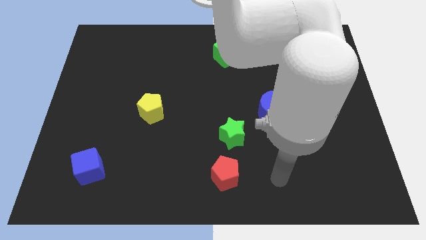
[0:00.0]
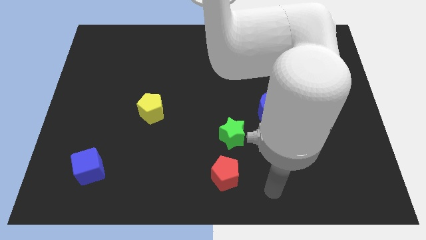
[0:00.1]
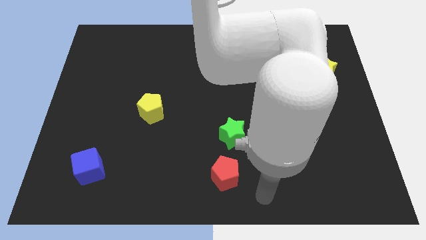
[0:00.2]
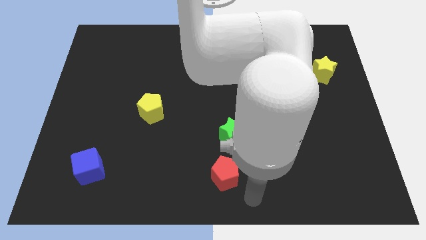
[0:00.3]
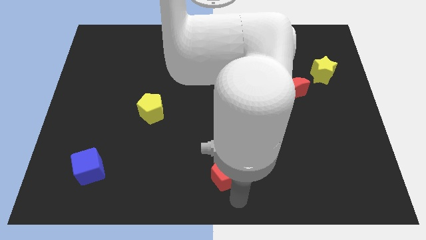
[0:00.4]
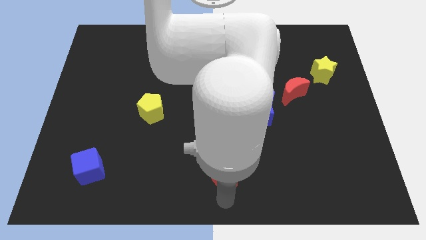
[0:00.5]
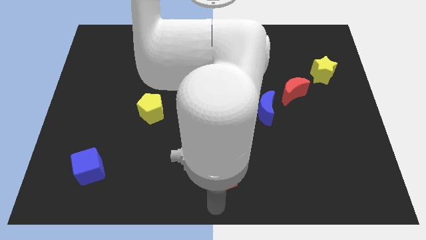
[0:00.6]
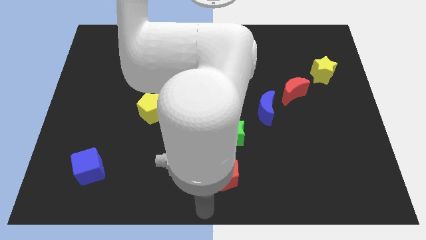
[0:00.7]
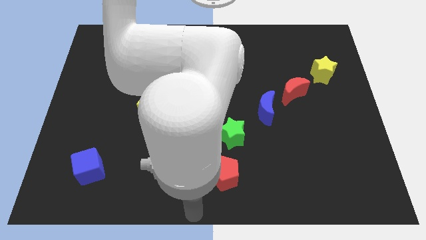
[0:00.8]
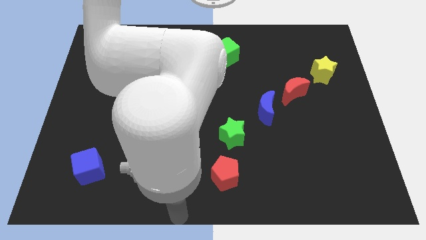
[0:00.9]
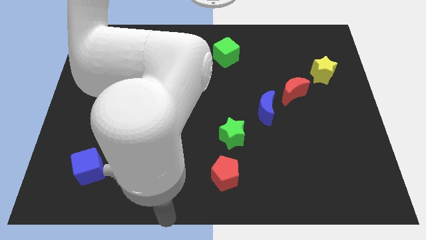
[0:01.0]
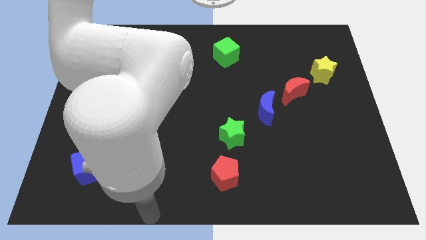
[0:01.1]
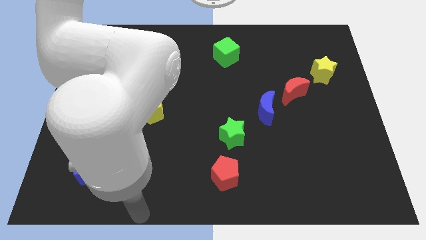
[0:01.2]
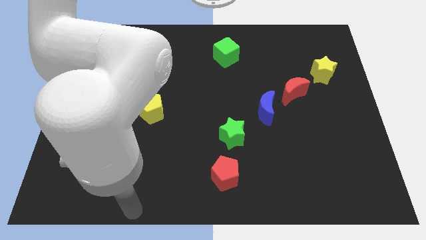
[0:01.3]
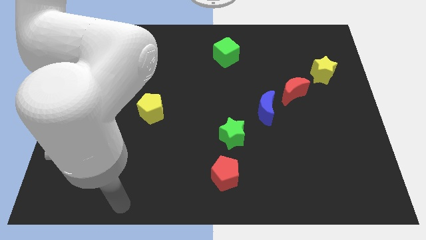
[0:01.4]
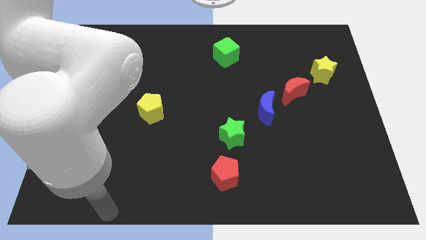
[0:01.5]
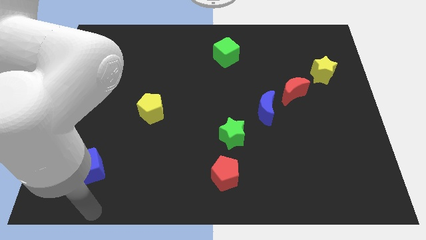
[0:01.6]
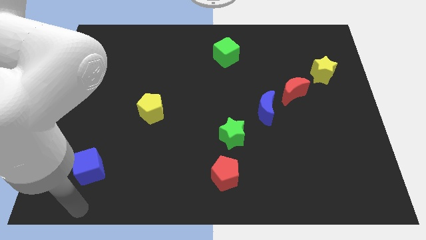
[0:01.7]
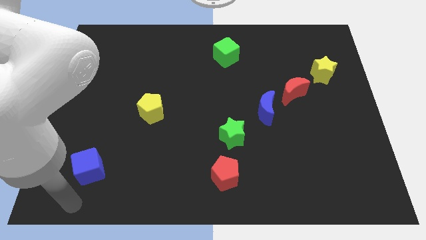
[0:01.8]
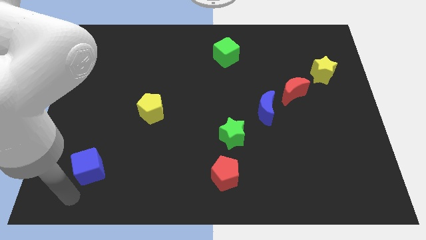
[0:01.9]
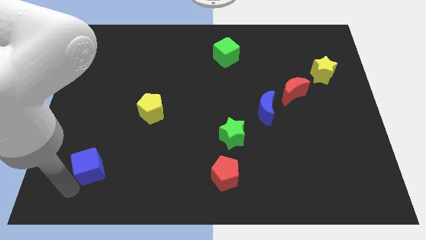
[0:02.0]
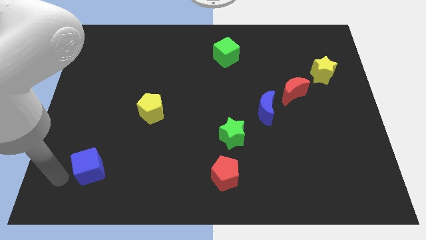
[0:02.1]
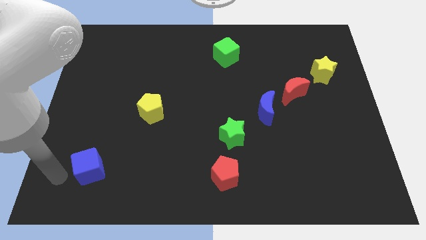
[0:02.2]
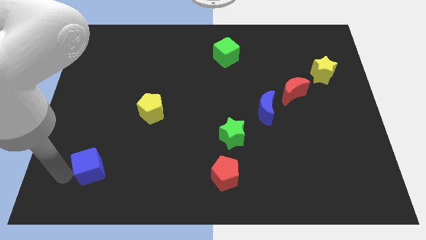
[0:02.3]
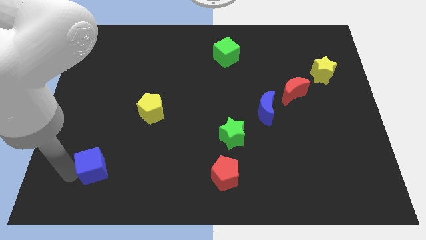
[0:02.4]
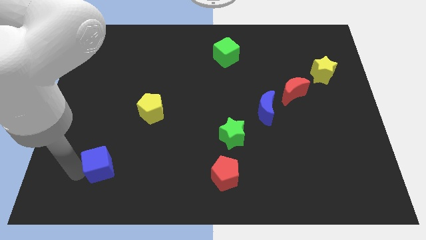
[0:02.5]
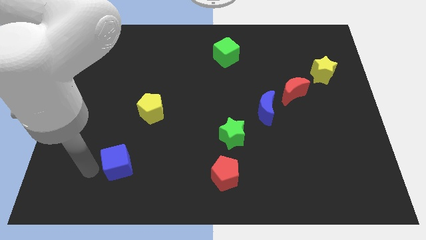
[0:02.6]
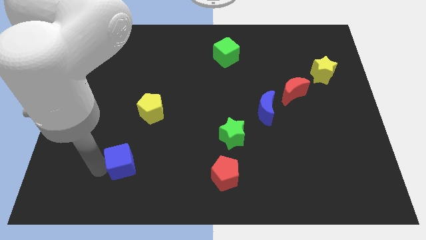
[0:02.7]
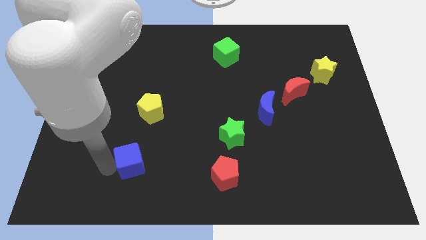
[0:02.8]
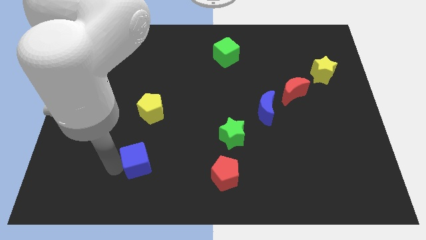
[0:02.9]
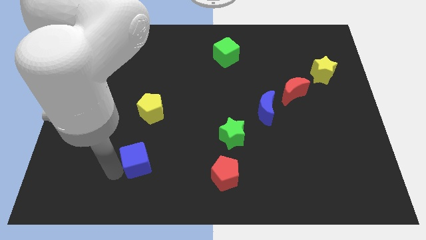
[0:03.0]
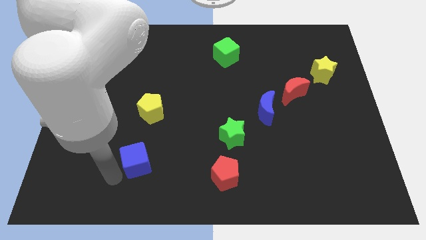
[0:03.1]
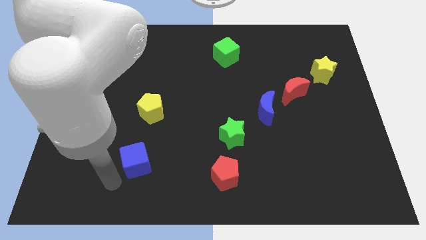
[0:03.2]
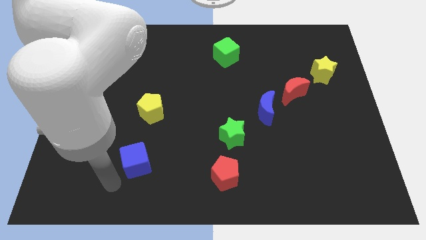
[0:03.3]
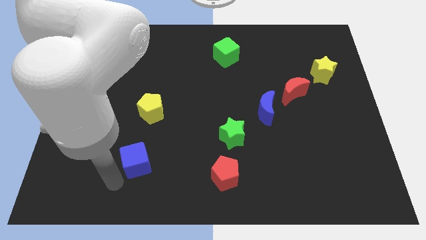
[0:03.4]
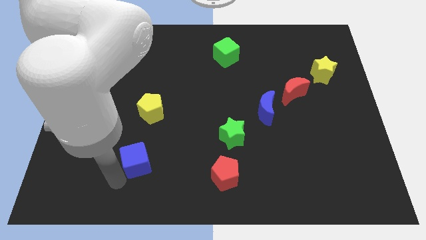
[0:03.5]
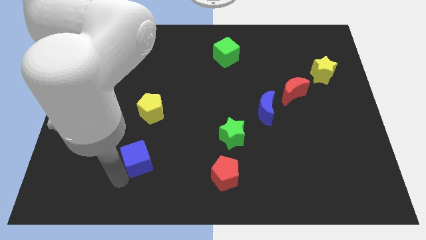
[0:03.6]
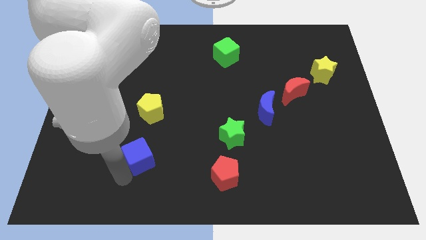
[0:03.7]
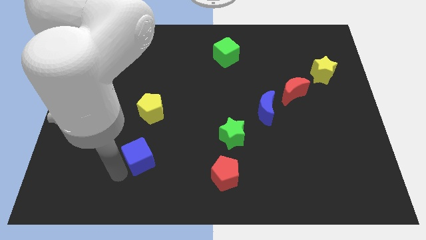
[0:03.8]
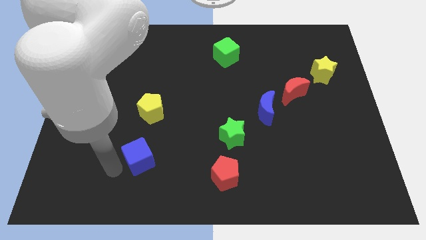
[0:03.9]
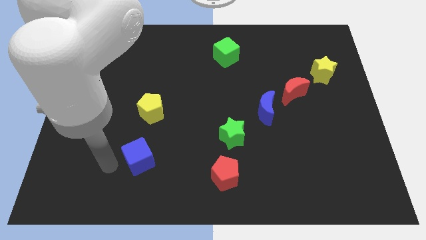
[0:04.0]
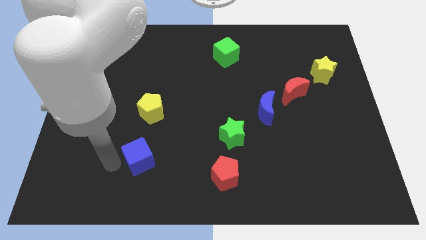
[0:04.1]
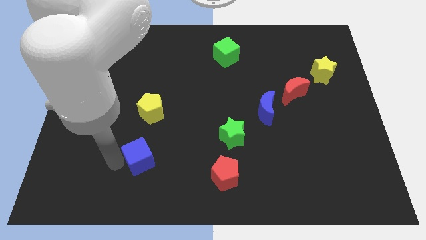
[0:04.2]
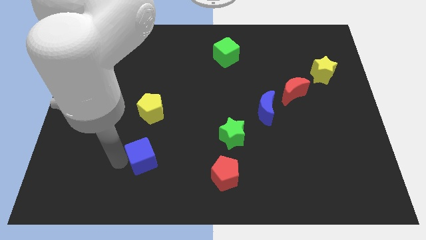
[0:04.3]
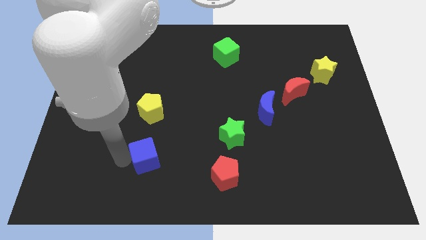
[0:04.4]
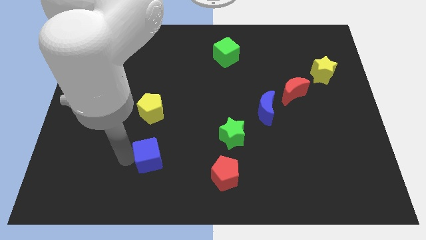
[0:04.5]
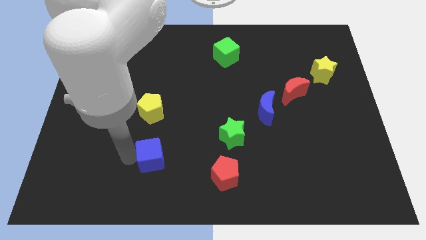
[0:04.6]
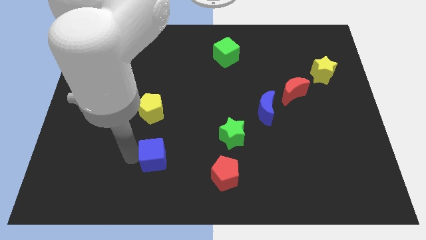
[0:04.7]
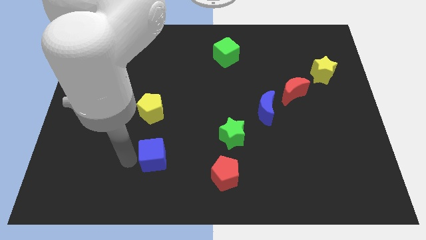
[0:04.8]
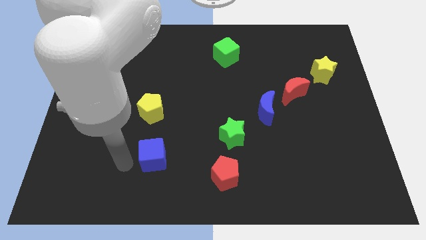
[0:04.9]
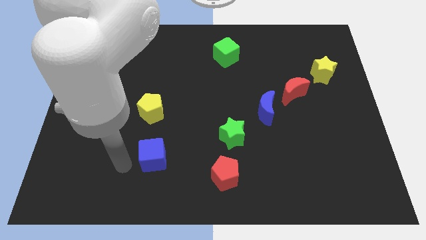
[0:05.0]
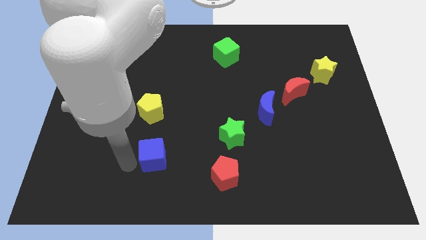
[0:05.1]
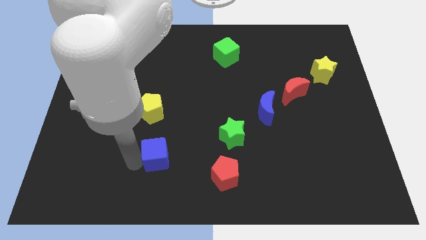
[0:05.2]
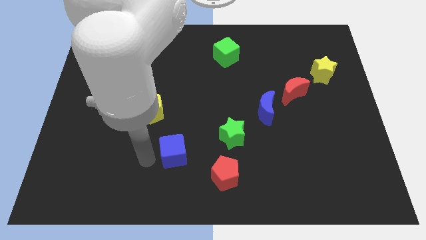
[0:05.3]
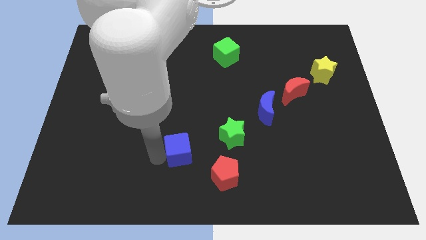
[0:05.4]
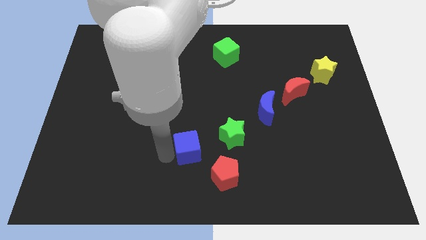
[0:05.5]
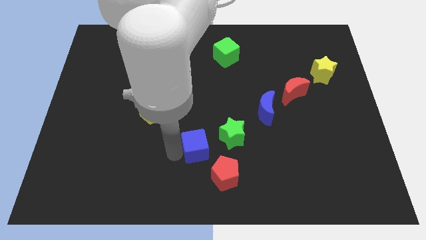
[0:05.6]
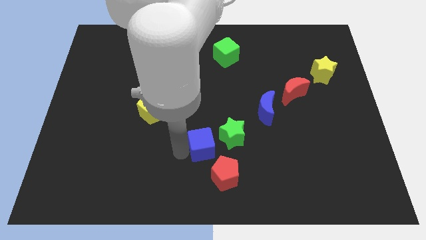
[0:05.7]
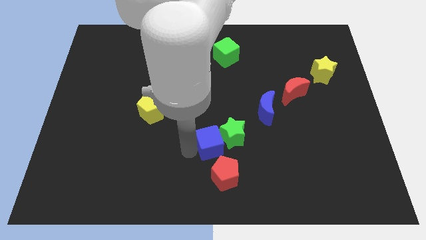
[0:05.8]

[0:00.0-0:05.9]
put the blue cube close to the green star

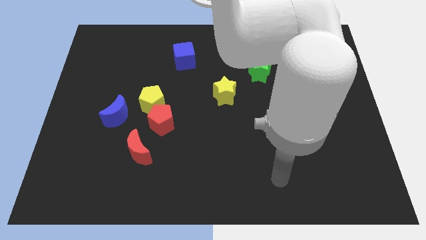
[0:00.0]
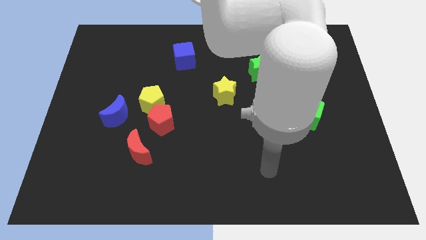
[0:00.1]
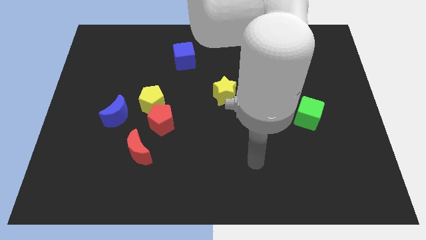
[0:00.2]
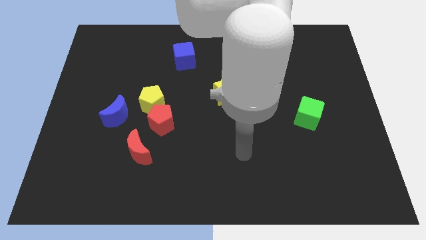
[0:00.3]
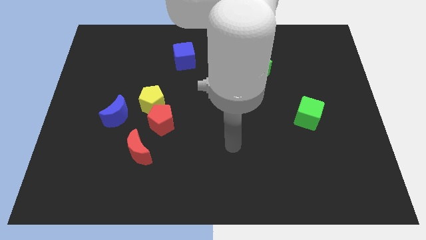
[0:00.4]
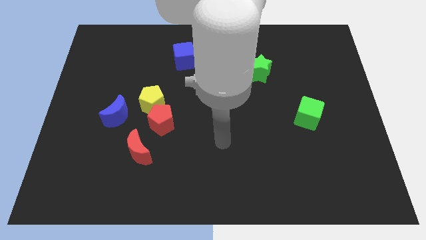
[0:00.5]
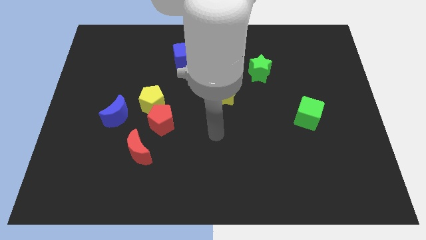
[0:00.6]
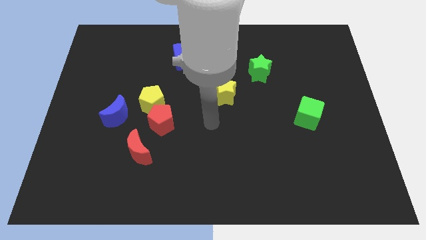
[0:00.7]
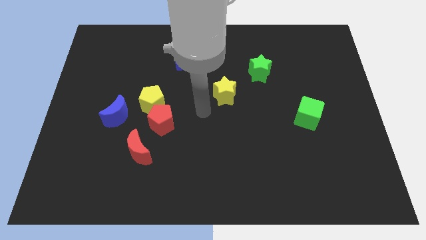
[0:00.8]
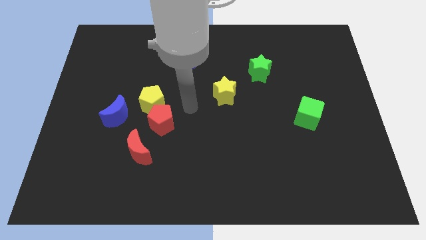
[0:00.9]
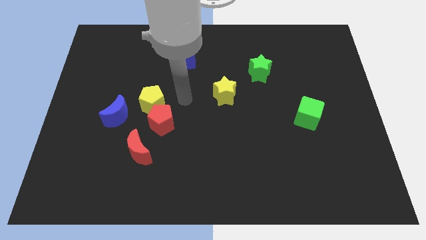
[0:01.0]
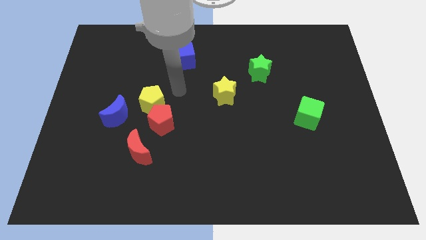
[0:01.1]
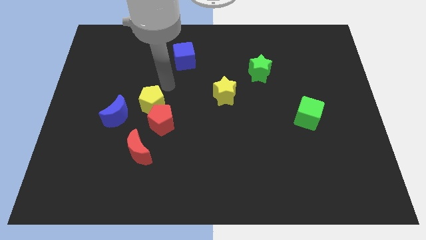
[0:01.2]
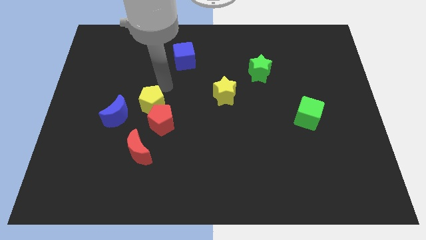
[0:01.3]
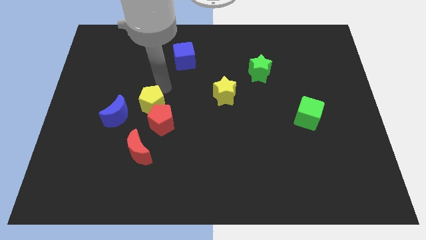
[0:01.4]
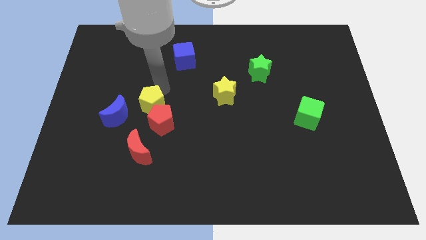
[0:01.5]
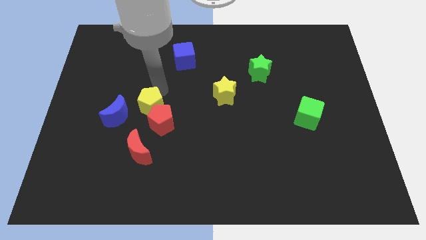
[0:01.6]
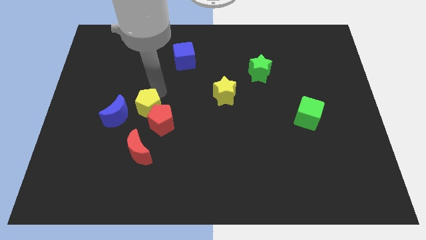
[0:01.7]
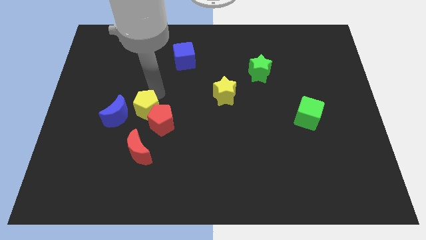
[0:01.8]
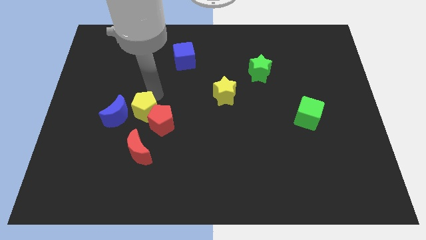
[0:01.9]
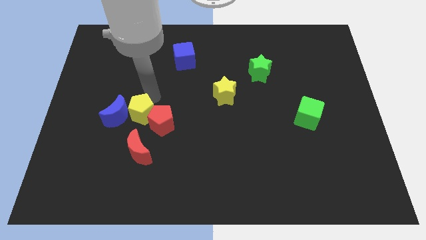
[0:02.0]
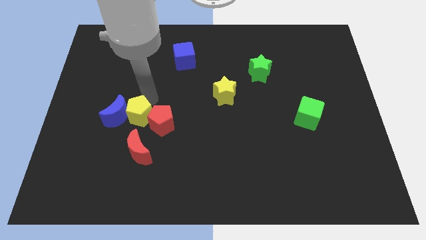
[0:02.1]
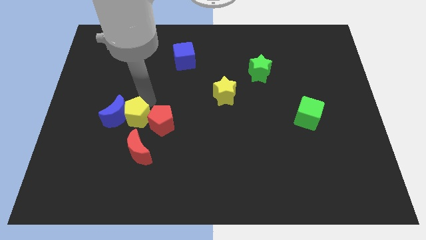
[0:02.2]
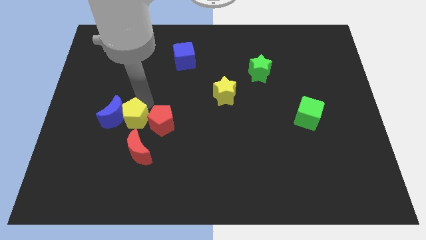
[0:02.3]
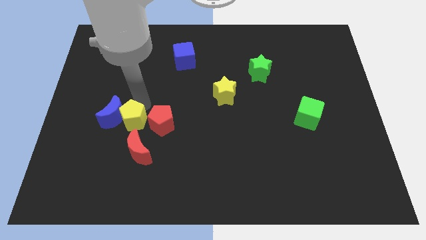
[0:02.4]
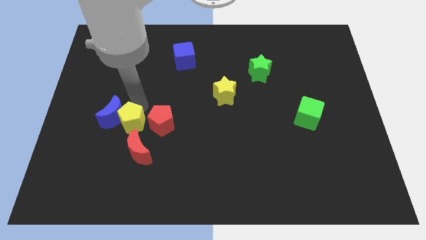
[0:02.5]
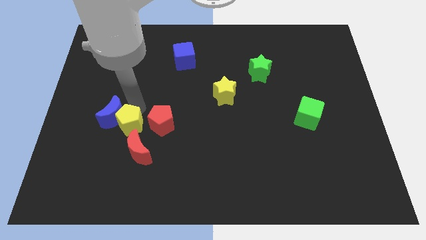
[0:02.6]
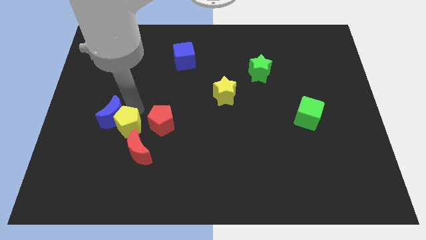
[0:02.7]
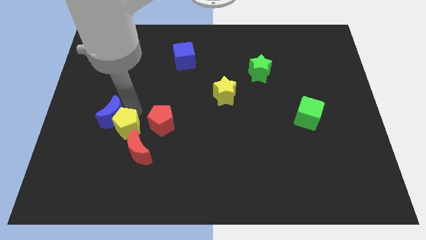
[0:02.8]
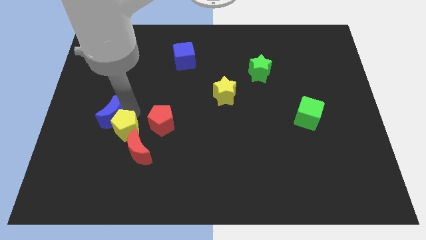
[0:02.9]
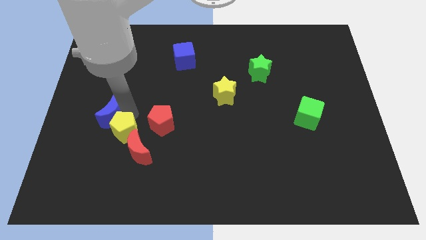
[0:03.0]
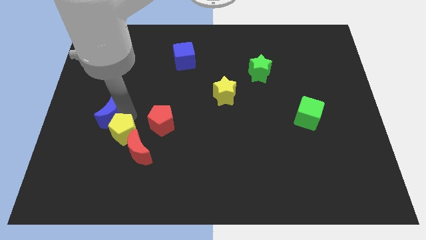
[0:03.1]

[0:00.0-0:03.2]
put the yellow pentagon to the red moon
